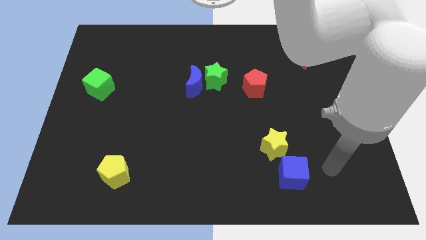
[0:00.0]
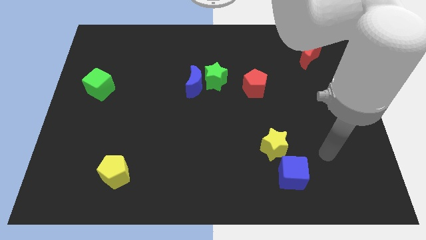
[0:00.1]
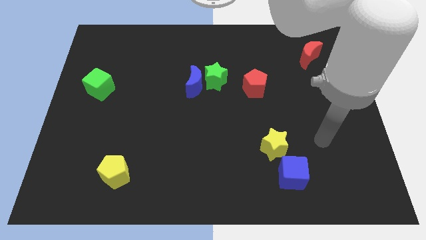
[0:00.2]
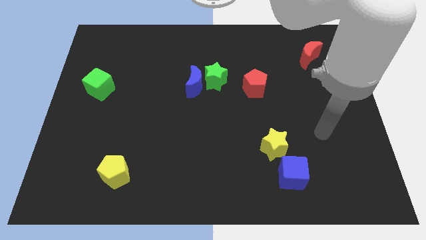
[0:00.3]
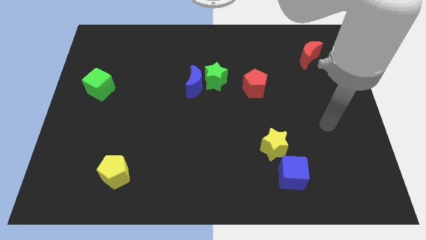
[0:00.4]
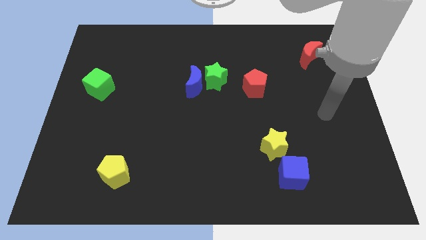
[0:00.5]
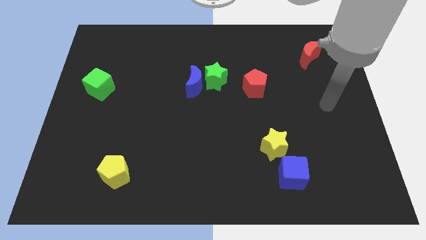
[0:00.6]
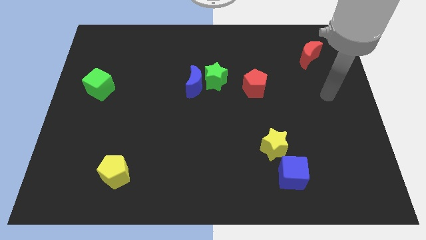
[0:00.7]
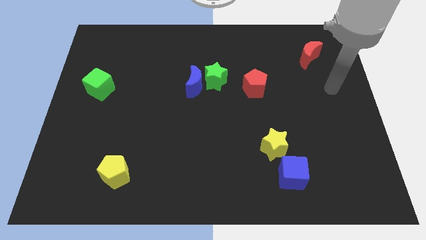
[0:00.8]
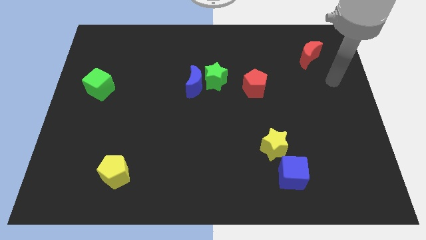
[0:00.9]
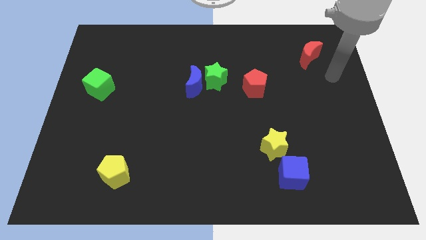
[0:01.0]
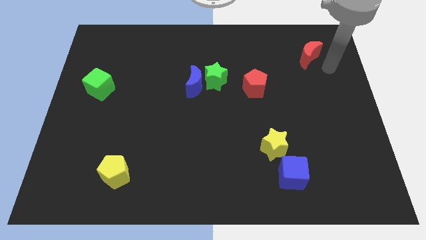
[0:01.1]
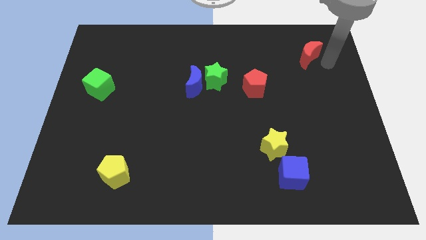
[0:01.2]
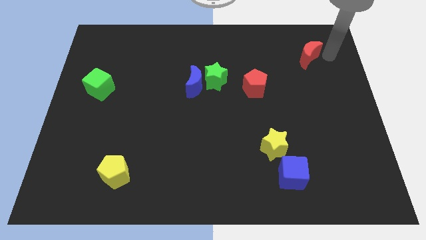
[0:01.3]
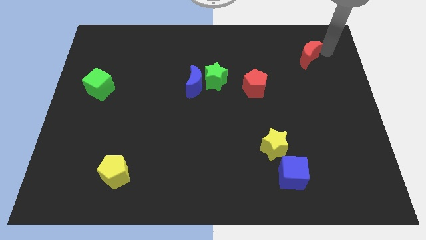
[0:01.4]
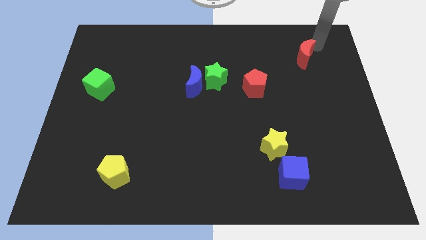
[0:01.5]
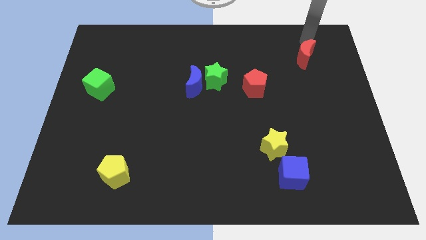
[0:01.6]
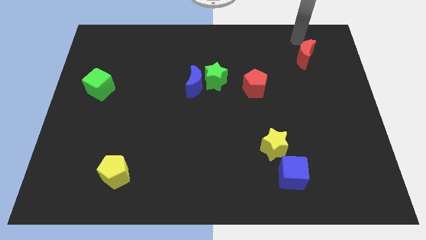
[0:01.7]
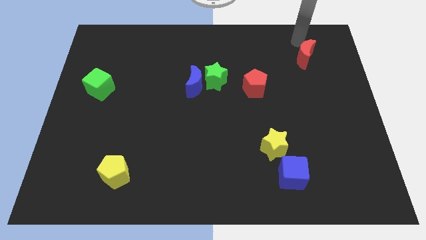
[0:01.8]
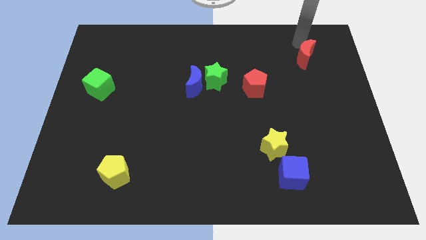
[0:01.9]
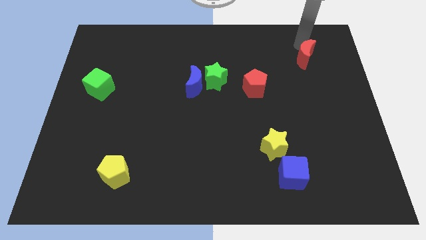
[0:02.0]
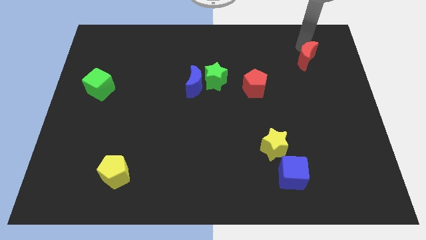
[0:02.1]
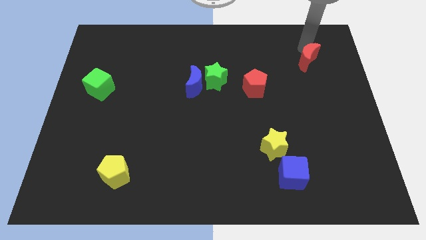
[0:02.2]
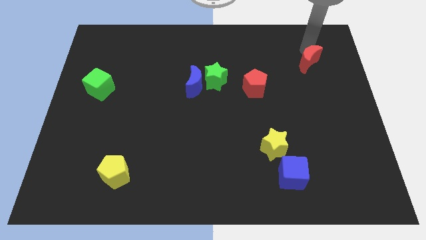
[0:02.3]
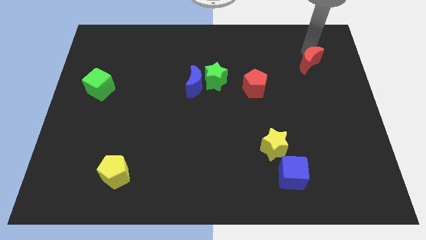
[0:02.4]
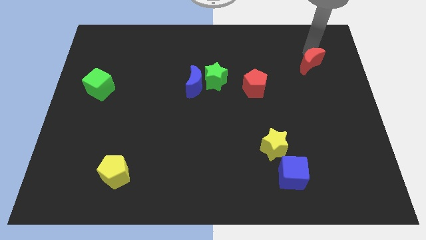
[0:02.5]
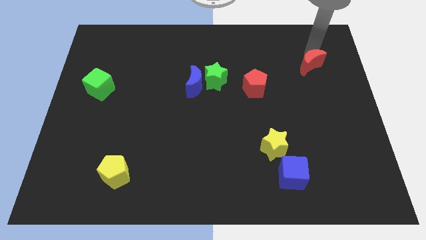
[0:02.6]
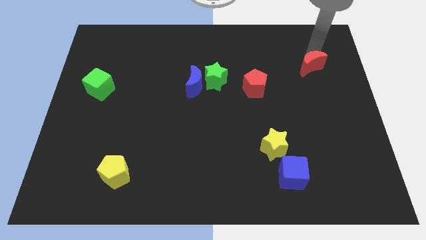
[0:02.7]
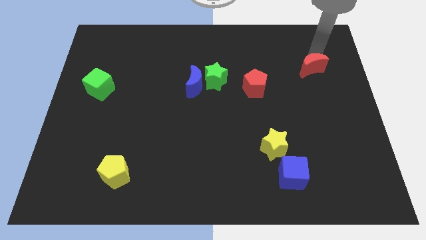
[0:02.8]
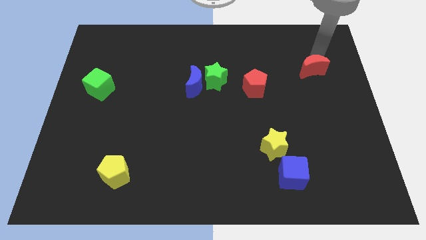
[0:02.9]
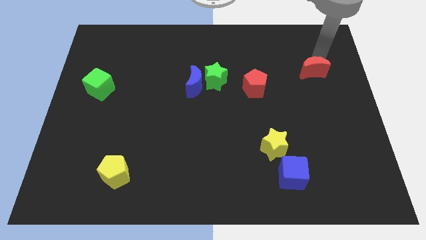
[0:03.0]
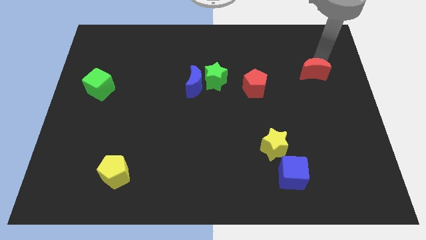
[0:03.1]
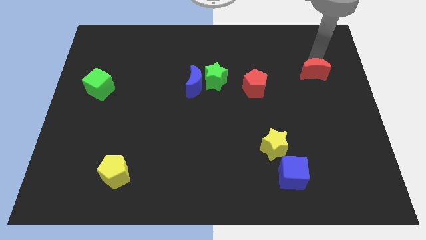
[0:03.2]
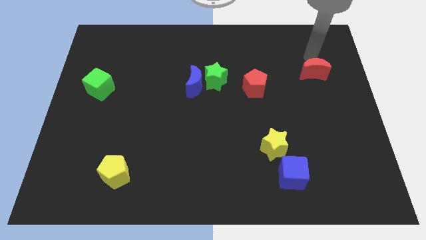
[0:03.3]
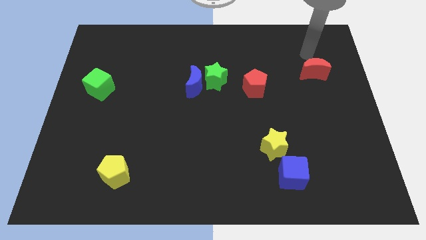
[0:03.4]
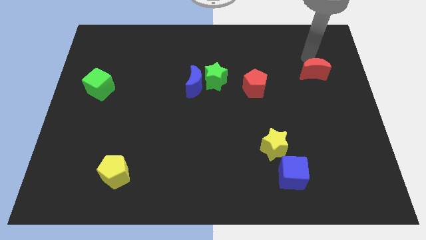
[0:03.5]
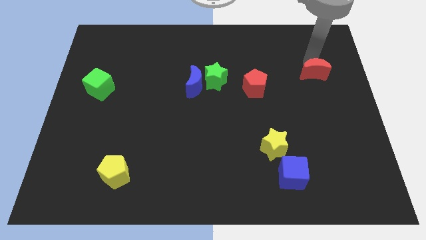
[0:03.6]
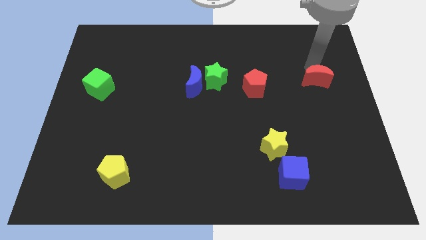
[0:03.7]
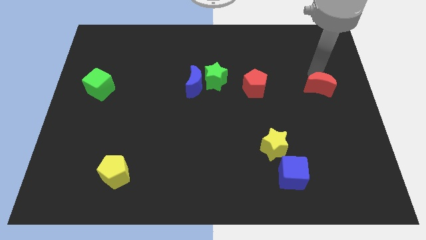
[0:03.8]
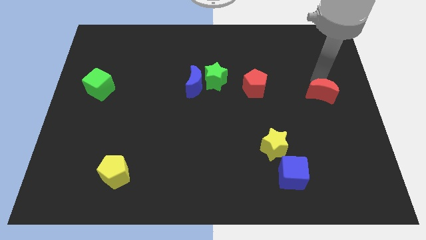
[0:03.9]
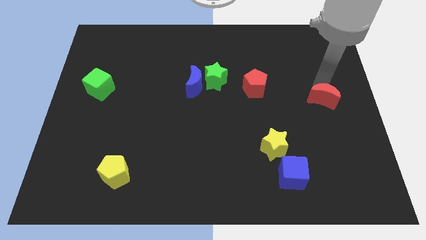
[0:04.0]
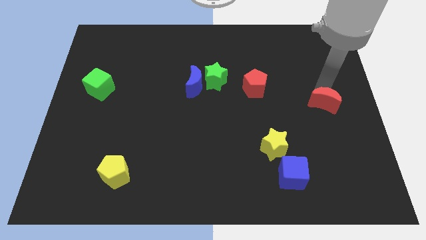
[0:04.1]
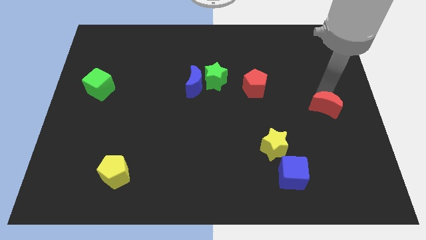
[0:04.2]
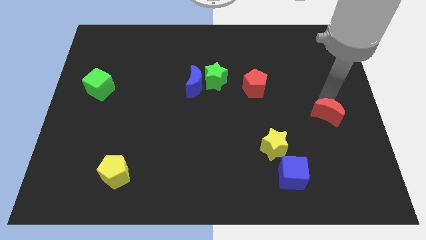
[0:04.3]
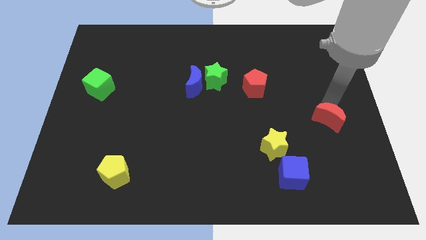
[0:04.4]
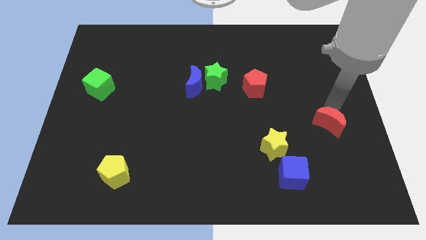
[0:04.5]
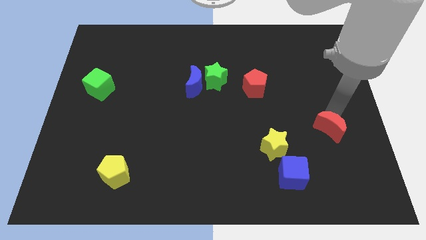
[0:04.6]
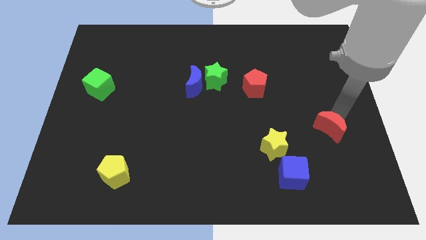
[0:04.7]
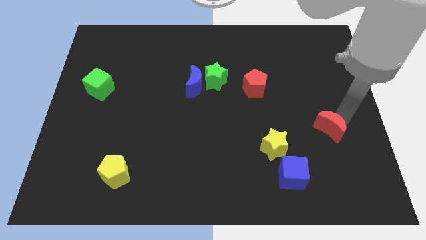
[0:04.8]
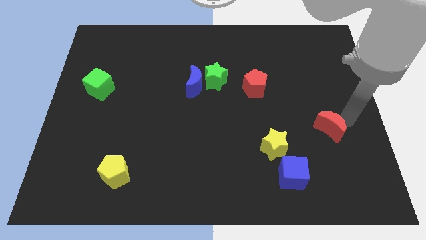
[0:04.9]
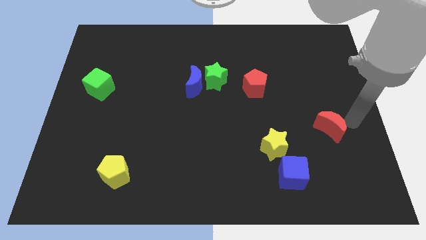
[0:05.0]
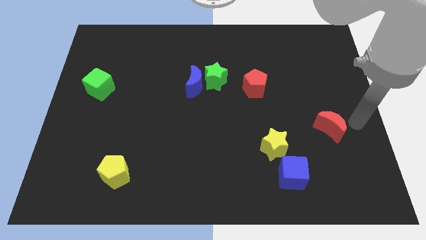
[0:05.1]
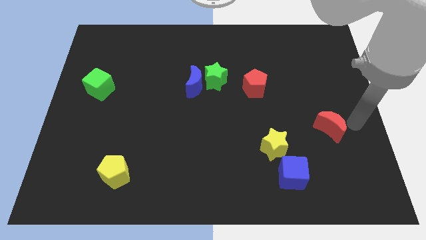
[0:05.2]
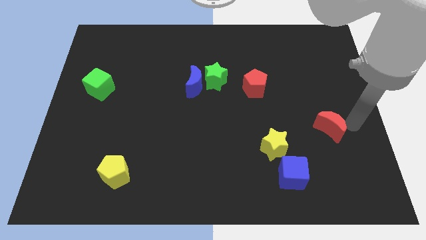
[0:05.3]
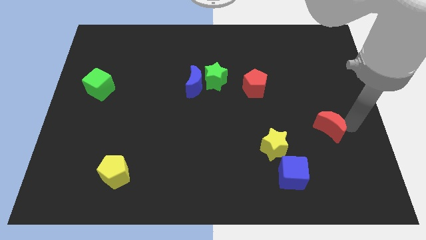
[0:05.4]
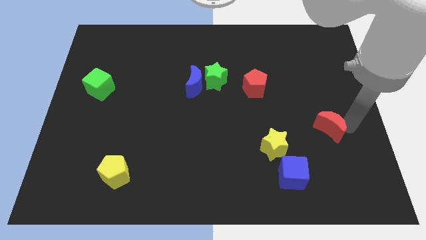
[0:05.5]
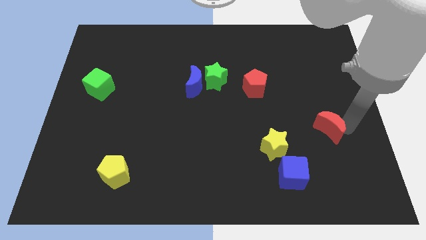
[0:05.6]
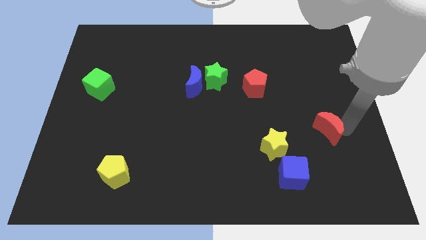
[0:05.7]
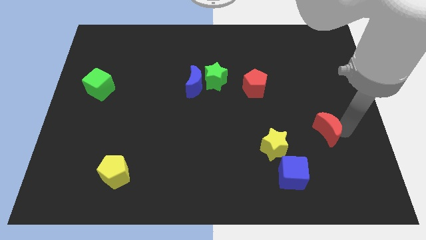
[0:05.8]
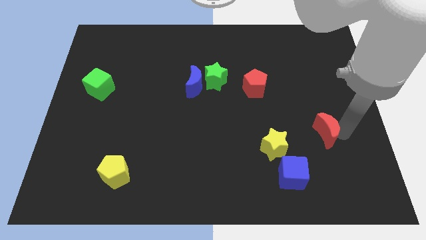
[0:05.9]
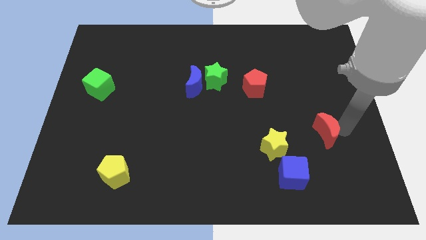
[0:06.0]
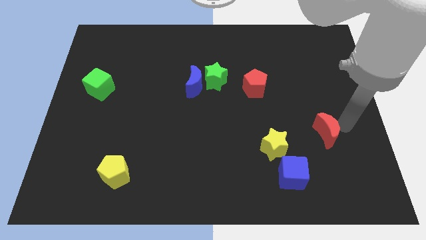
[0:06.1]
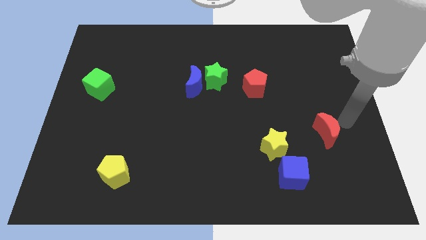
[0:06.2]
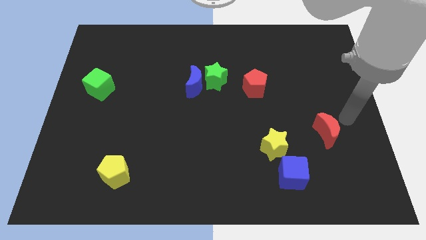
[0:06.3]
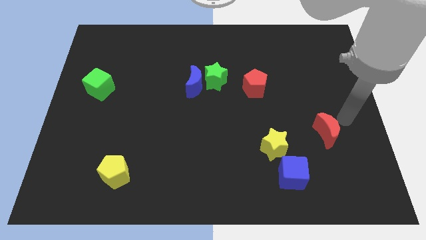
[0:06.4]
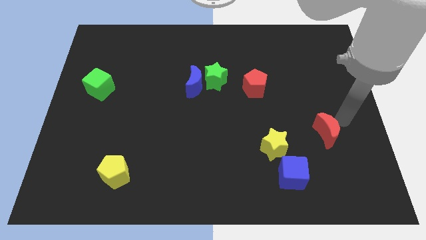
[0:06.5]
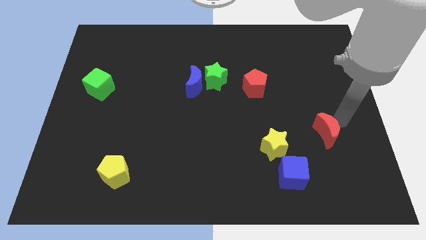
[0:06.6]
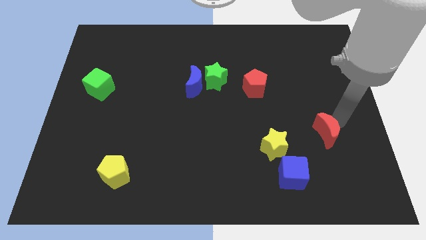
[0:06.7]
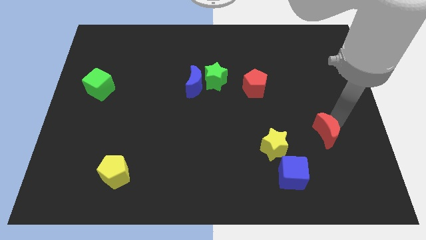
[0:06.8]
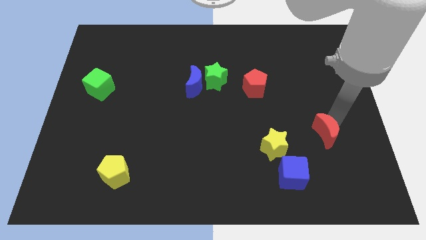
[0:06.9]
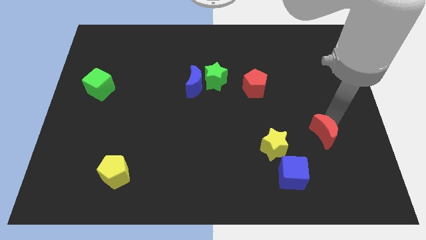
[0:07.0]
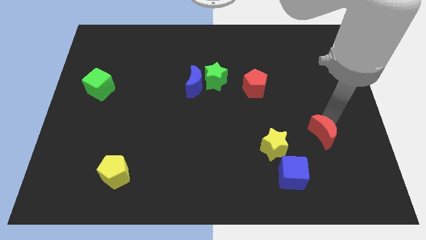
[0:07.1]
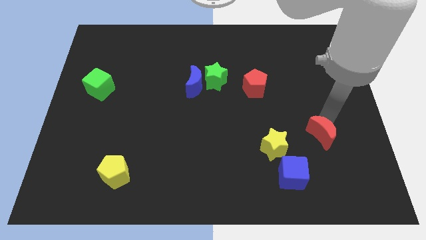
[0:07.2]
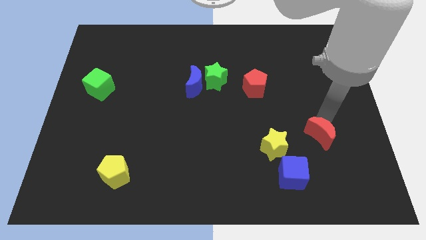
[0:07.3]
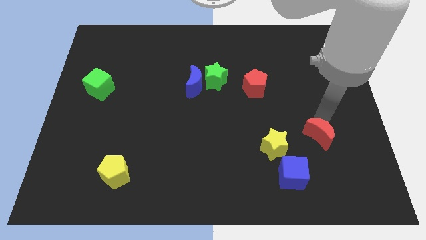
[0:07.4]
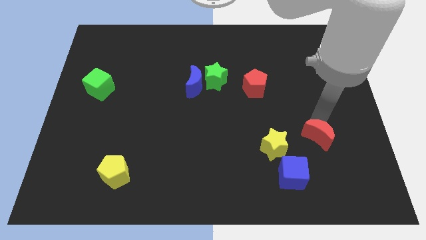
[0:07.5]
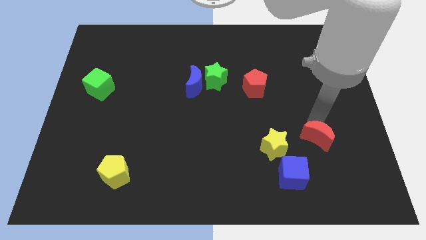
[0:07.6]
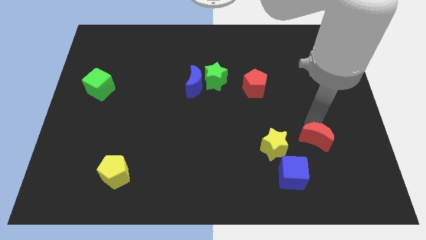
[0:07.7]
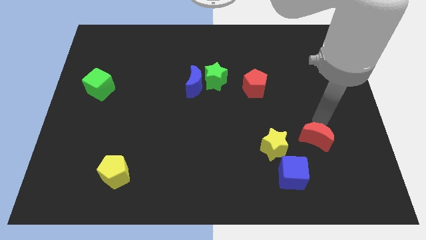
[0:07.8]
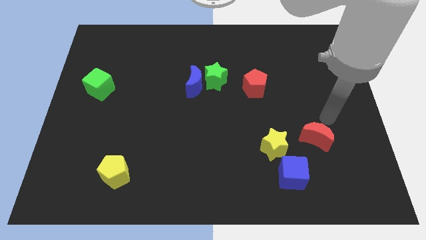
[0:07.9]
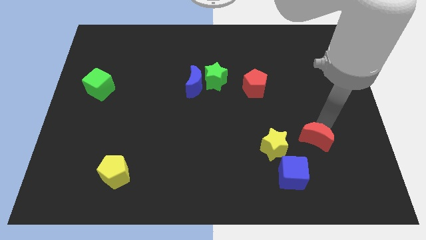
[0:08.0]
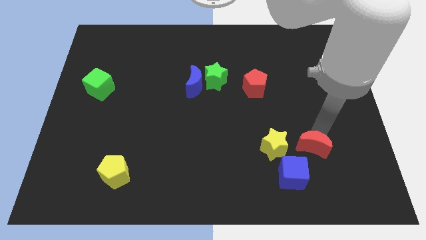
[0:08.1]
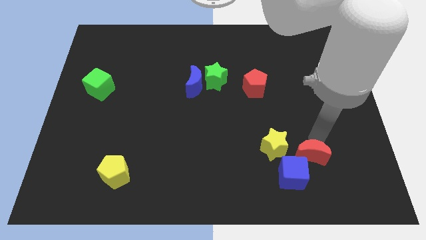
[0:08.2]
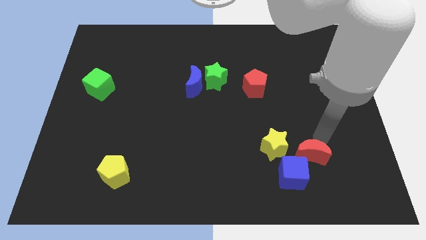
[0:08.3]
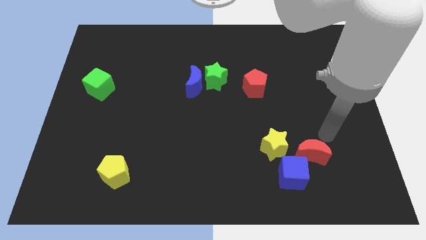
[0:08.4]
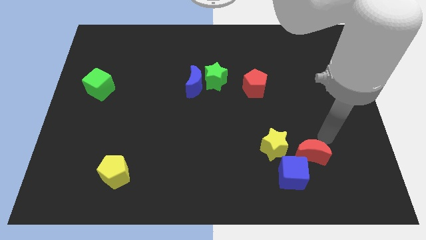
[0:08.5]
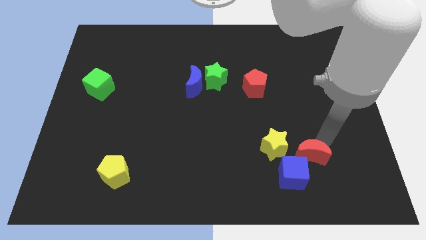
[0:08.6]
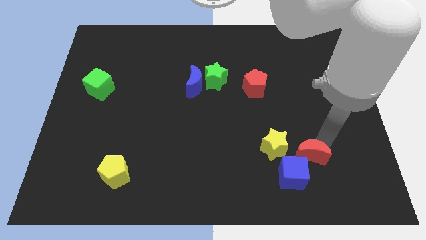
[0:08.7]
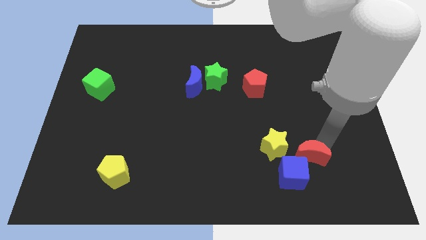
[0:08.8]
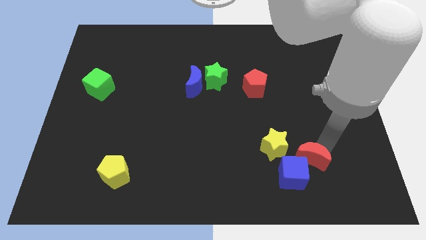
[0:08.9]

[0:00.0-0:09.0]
push the red moon to the blue cube
